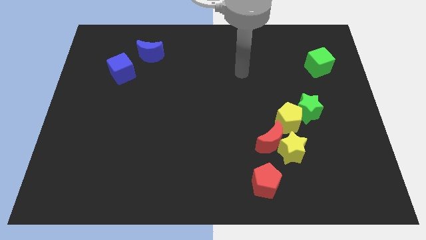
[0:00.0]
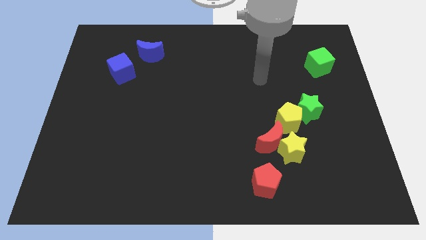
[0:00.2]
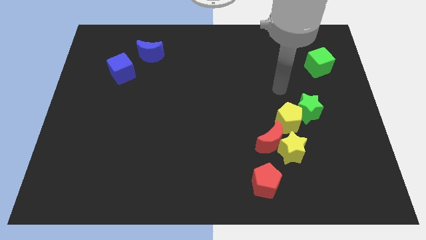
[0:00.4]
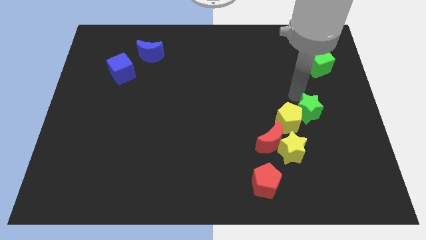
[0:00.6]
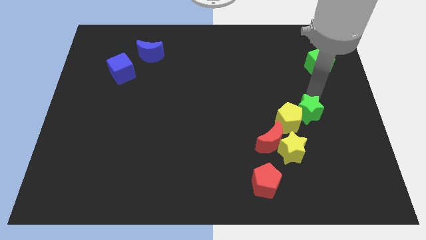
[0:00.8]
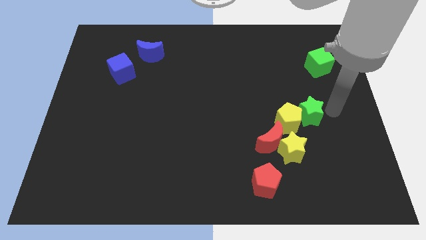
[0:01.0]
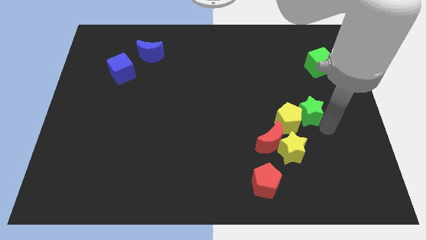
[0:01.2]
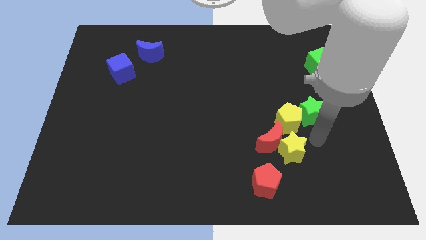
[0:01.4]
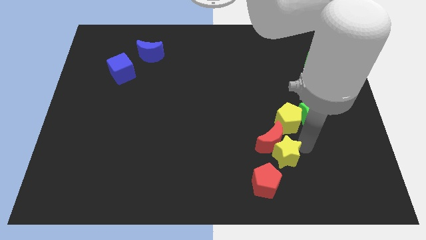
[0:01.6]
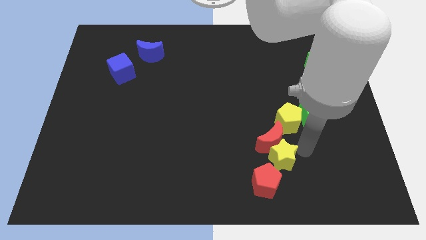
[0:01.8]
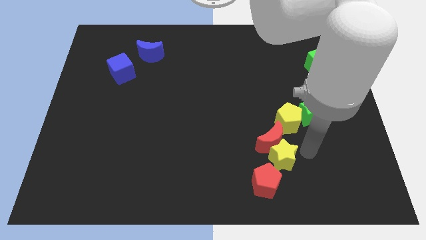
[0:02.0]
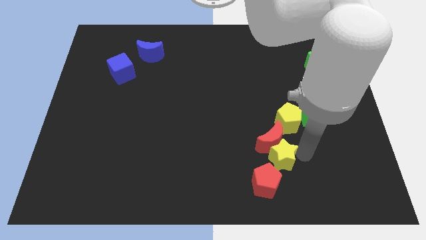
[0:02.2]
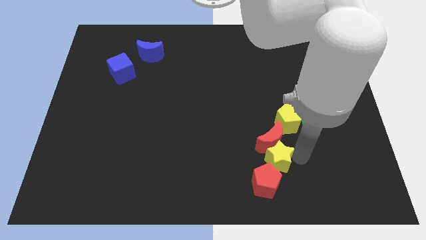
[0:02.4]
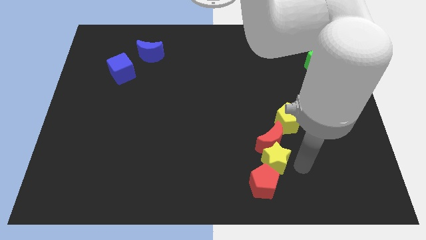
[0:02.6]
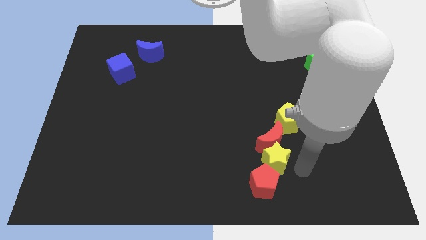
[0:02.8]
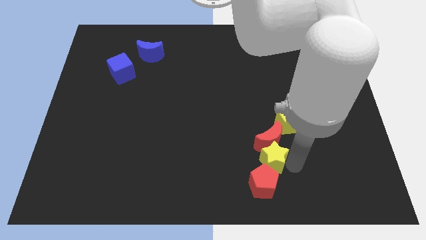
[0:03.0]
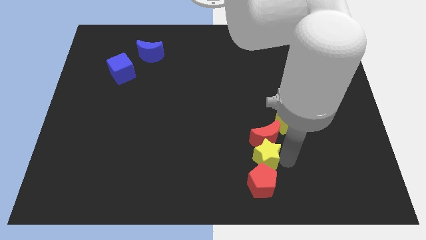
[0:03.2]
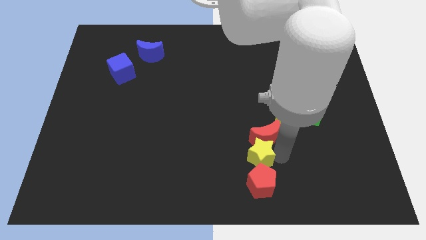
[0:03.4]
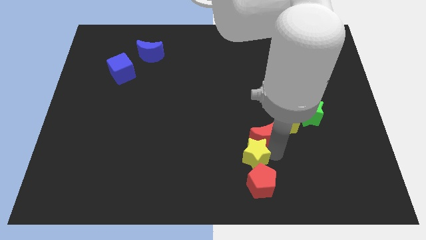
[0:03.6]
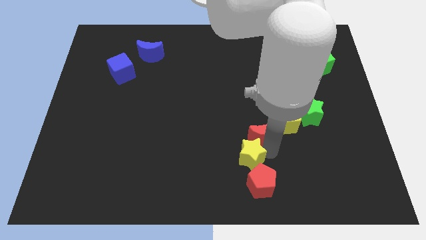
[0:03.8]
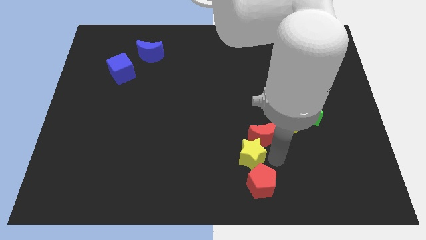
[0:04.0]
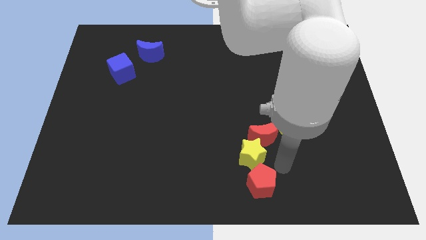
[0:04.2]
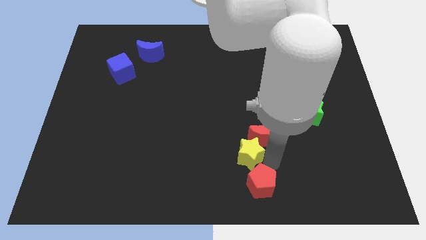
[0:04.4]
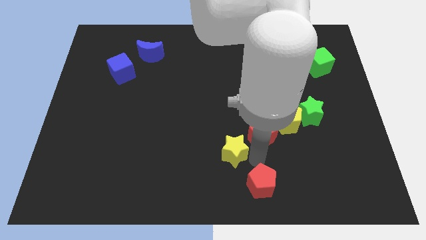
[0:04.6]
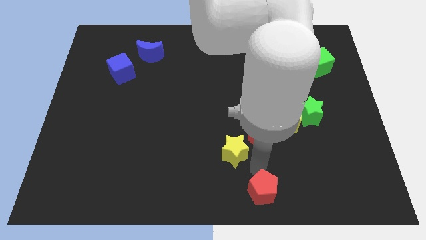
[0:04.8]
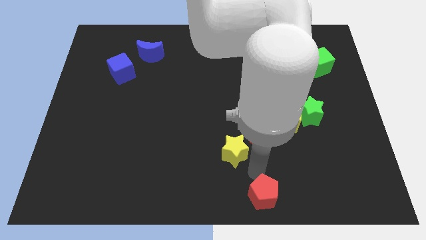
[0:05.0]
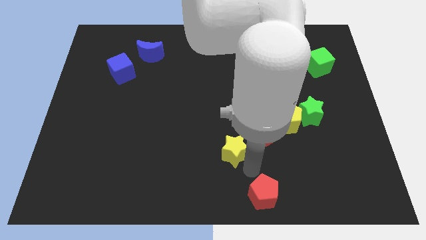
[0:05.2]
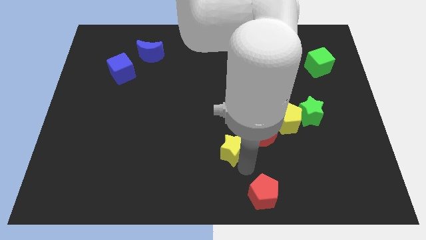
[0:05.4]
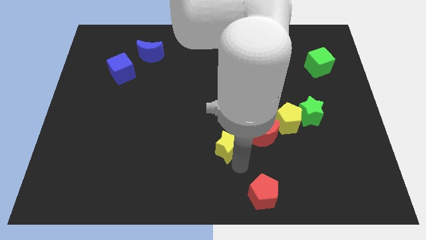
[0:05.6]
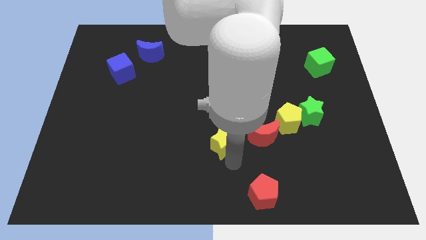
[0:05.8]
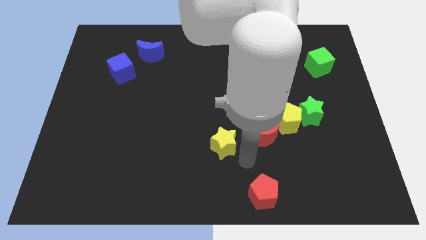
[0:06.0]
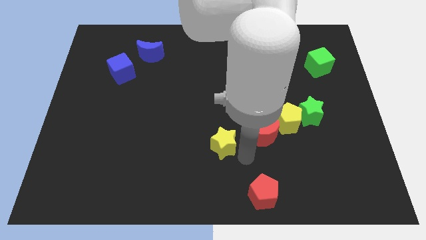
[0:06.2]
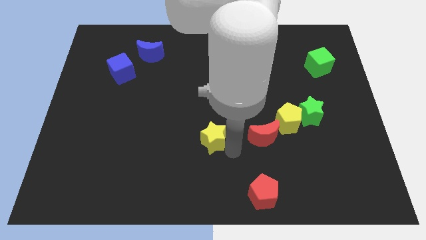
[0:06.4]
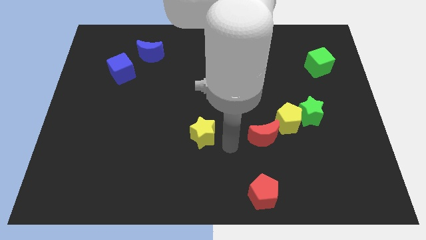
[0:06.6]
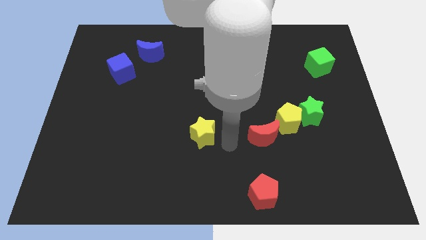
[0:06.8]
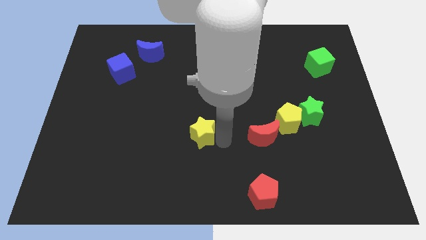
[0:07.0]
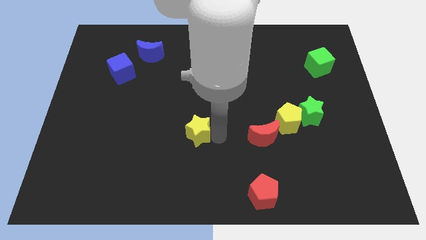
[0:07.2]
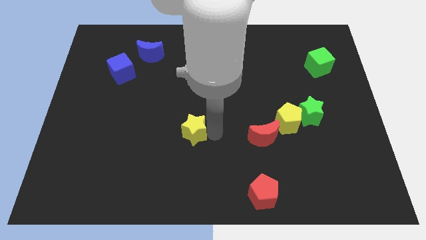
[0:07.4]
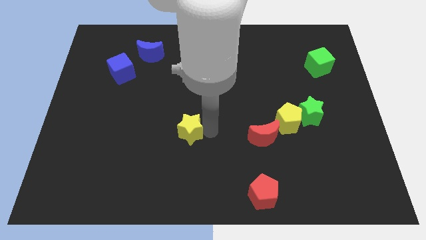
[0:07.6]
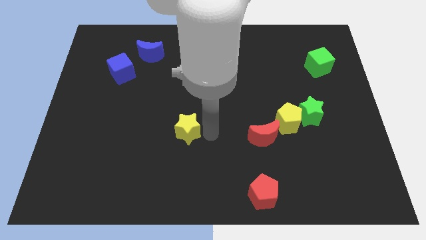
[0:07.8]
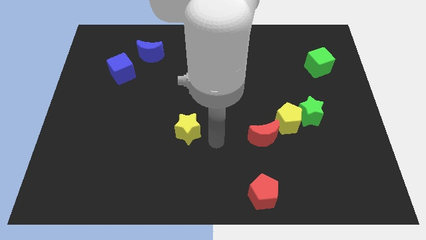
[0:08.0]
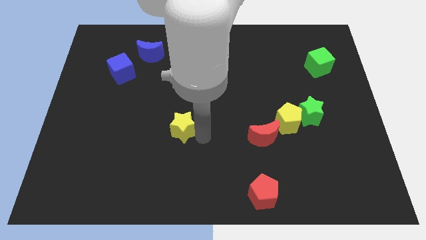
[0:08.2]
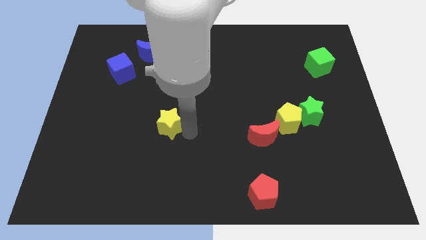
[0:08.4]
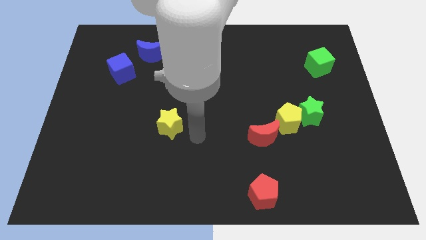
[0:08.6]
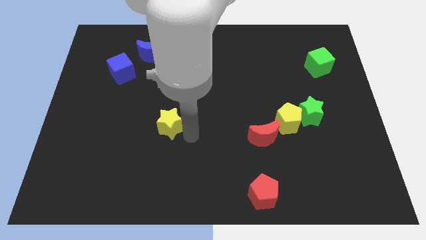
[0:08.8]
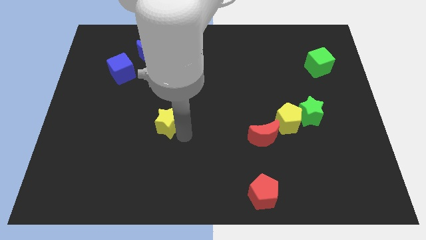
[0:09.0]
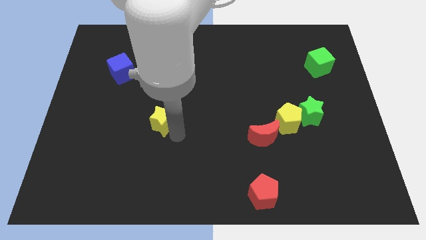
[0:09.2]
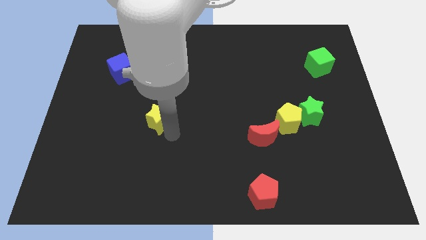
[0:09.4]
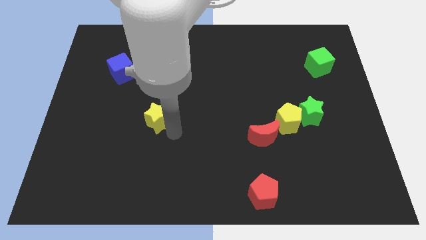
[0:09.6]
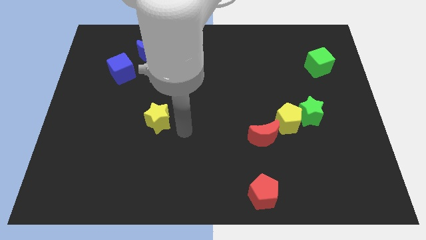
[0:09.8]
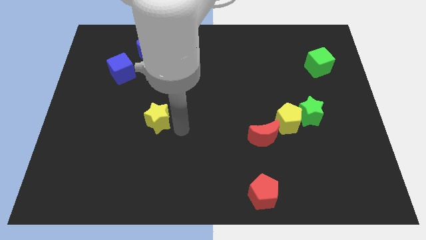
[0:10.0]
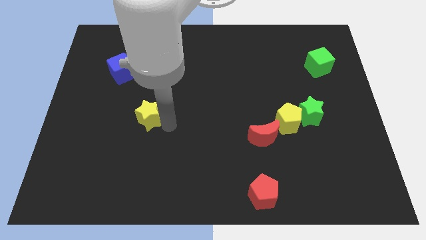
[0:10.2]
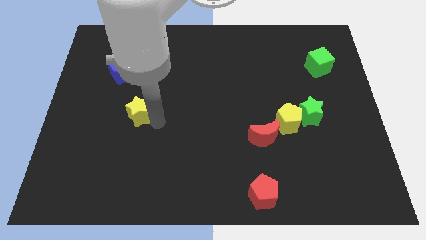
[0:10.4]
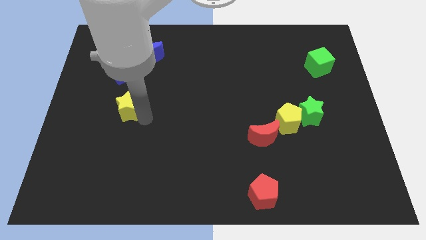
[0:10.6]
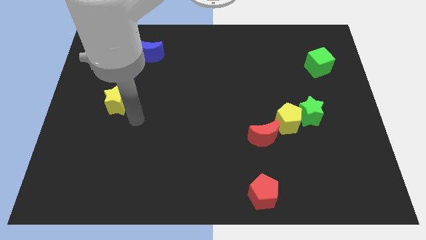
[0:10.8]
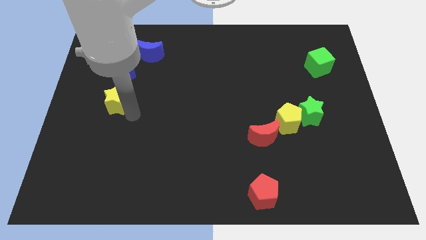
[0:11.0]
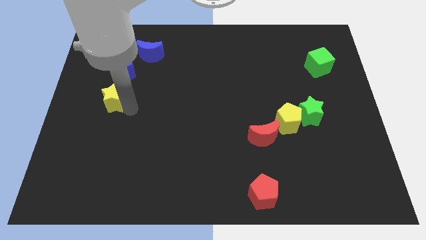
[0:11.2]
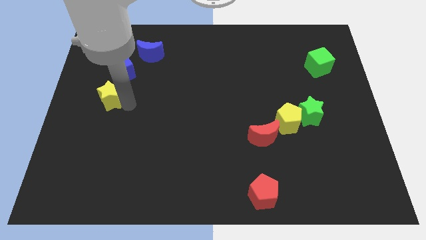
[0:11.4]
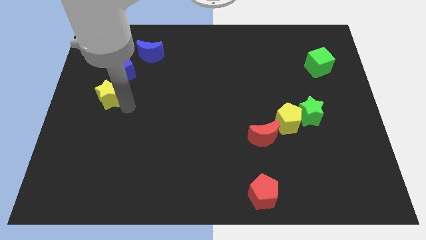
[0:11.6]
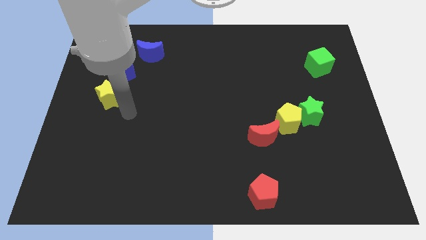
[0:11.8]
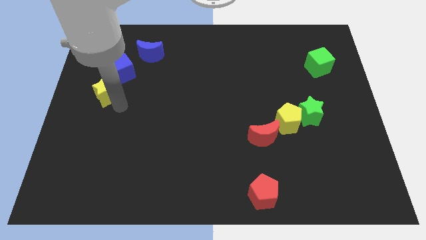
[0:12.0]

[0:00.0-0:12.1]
put the yellow star diagonally down and to the left of the blue cube

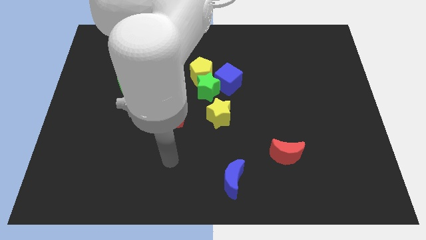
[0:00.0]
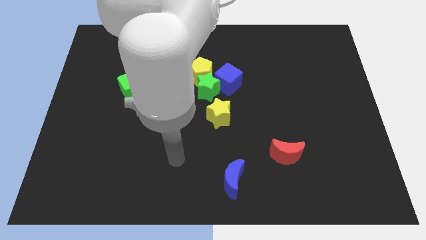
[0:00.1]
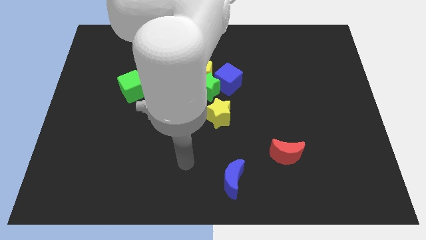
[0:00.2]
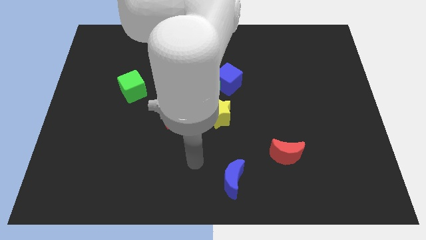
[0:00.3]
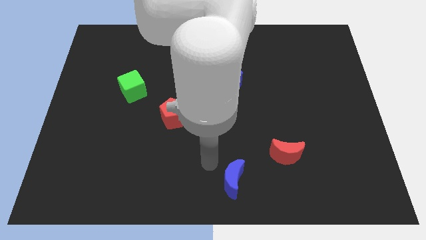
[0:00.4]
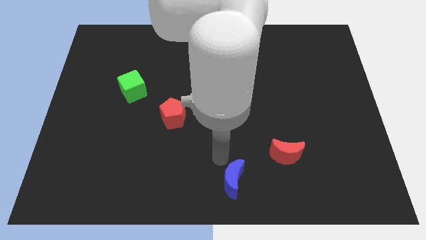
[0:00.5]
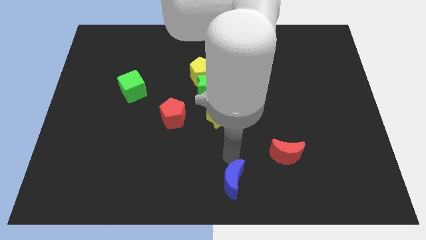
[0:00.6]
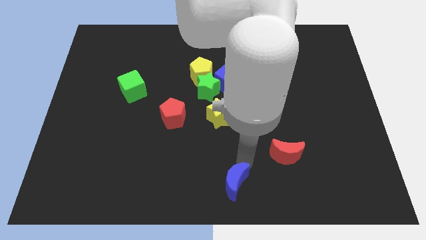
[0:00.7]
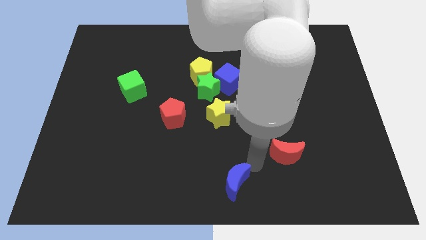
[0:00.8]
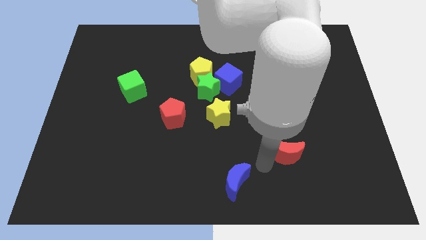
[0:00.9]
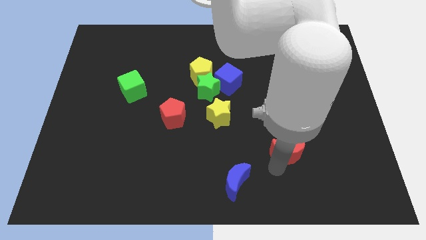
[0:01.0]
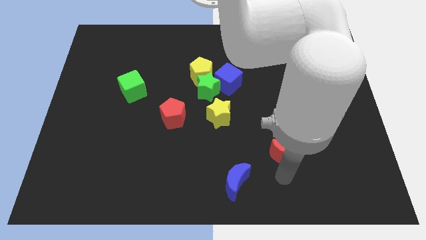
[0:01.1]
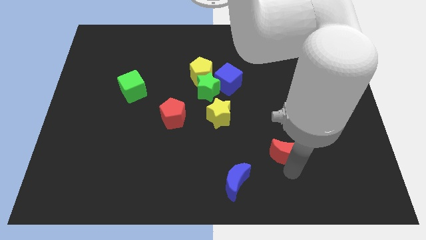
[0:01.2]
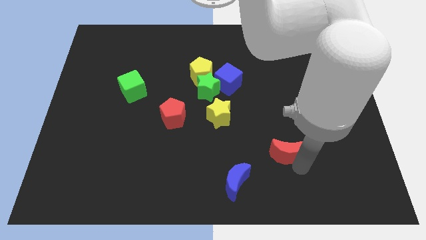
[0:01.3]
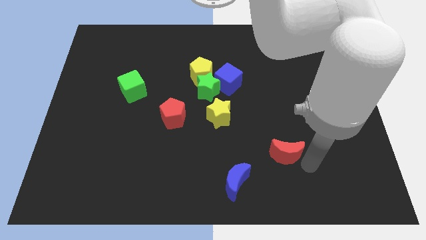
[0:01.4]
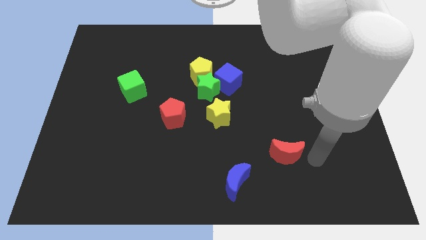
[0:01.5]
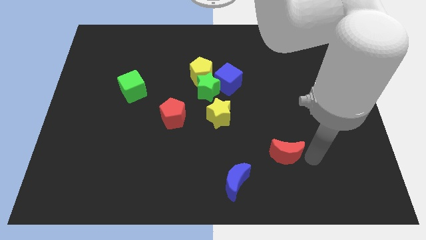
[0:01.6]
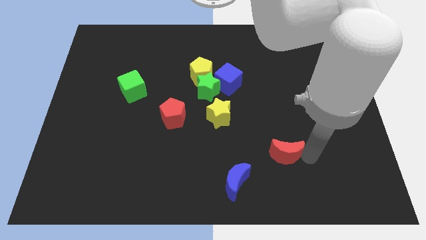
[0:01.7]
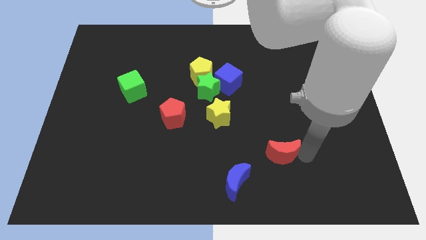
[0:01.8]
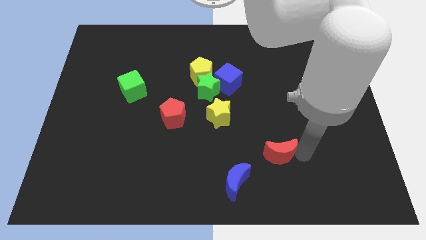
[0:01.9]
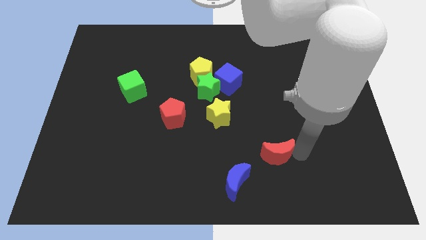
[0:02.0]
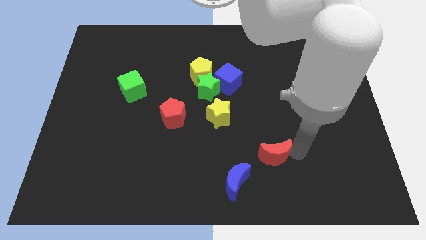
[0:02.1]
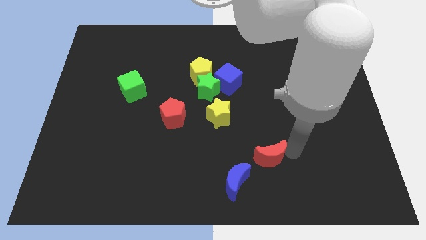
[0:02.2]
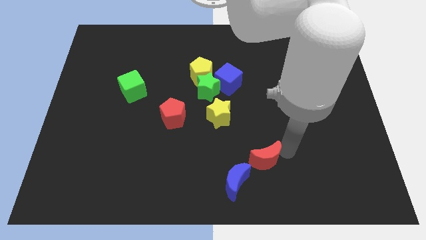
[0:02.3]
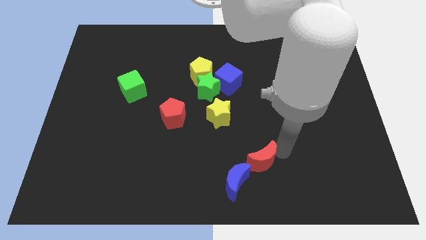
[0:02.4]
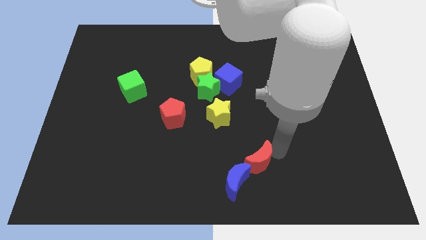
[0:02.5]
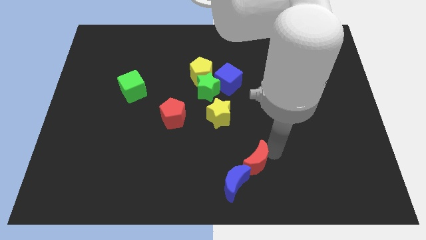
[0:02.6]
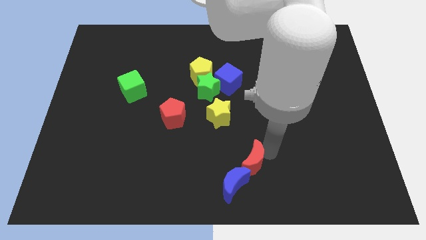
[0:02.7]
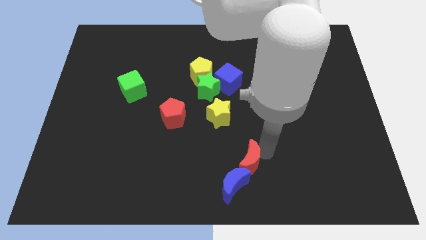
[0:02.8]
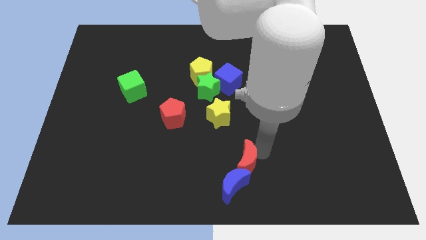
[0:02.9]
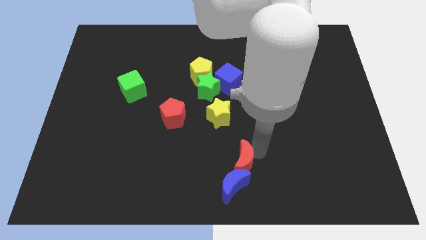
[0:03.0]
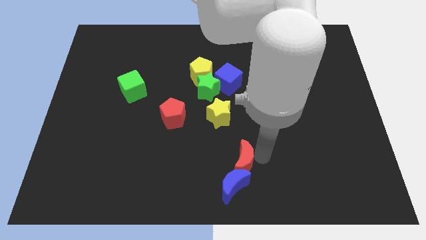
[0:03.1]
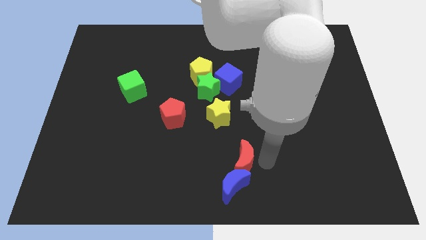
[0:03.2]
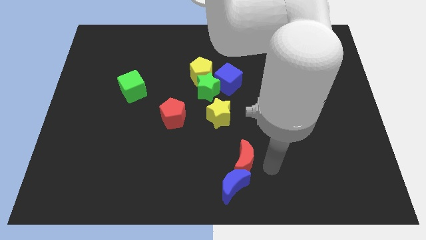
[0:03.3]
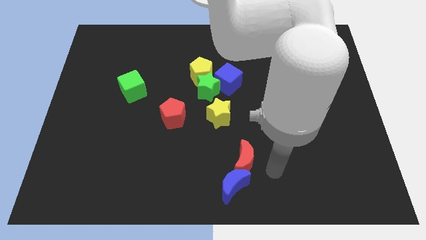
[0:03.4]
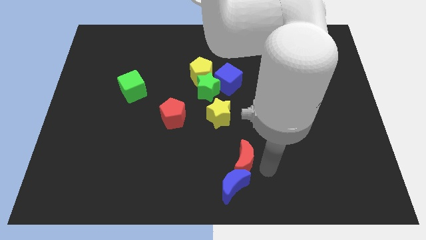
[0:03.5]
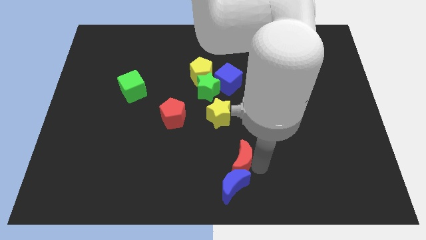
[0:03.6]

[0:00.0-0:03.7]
put the red moon below the yellow star
